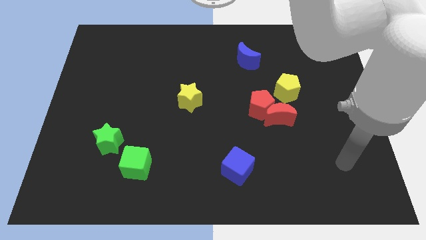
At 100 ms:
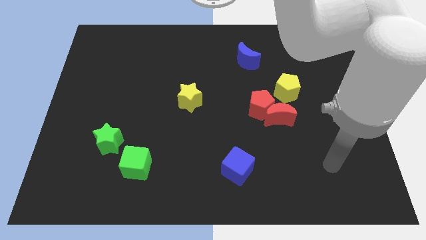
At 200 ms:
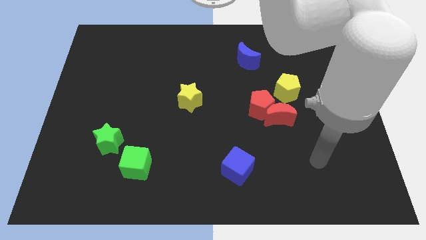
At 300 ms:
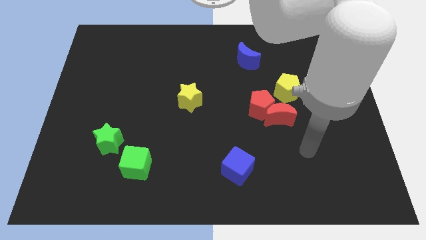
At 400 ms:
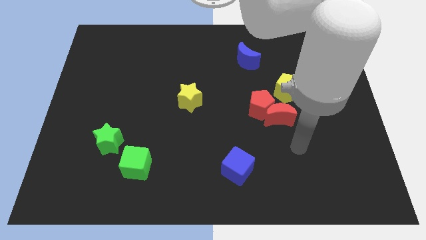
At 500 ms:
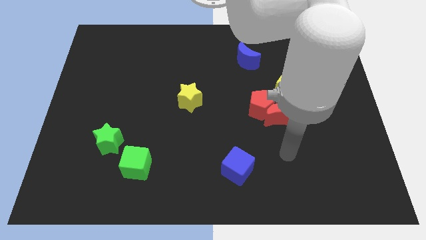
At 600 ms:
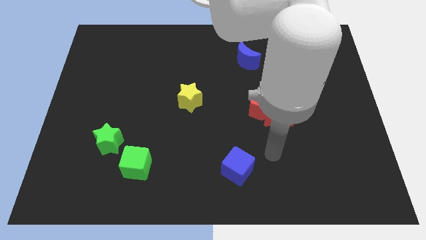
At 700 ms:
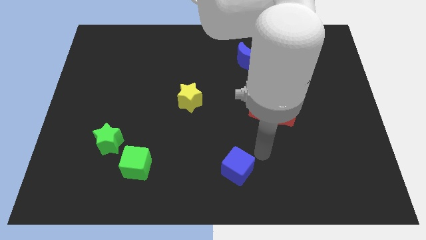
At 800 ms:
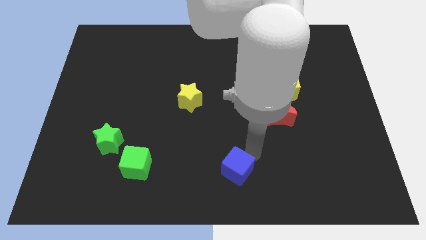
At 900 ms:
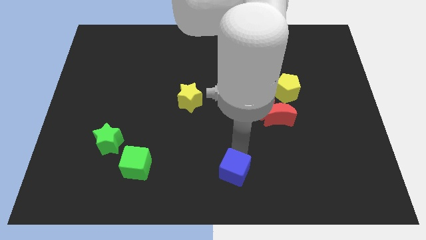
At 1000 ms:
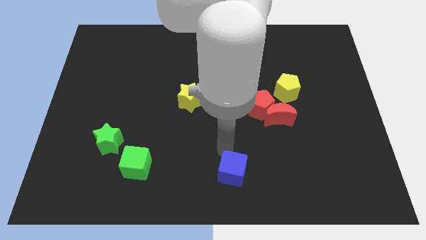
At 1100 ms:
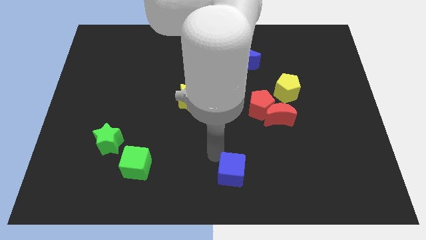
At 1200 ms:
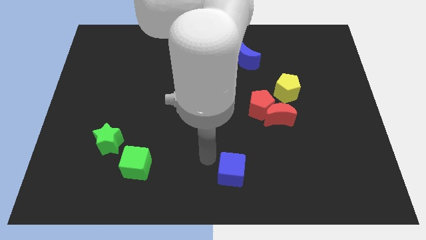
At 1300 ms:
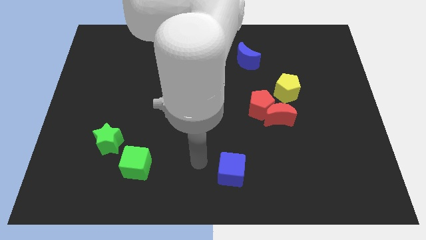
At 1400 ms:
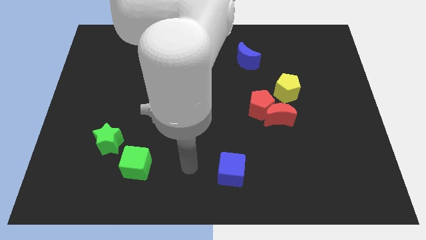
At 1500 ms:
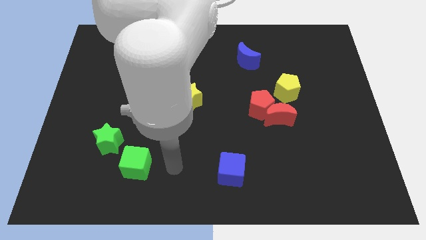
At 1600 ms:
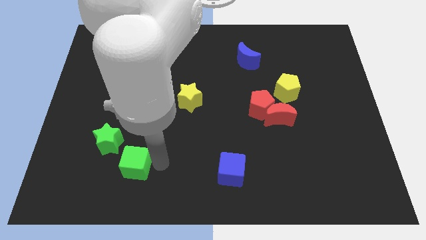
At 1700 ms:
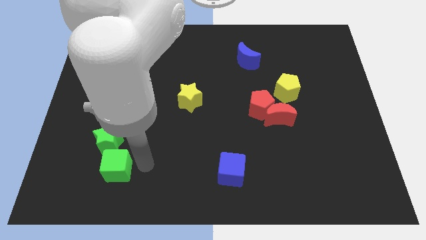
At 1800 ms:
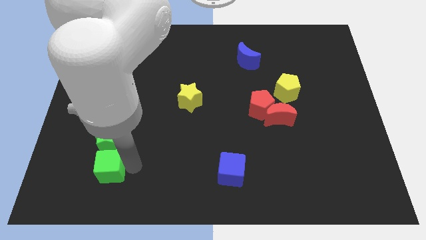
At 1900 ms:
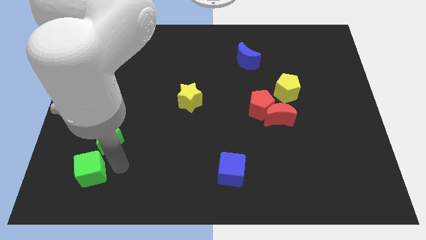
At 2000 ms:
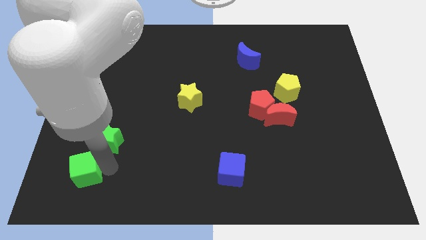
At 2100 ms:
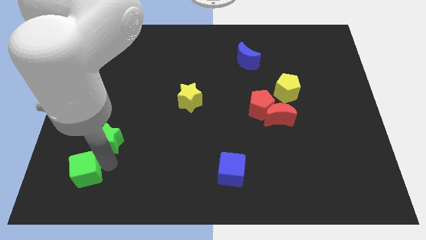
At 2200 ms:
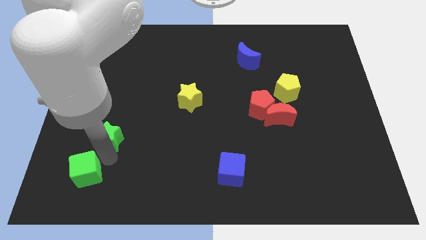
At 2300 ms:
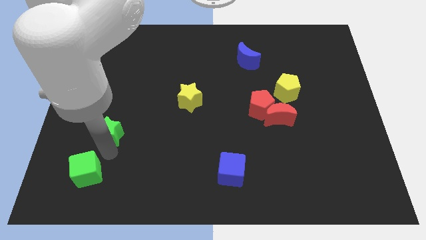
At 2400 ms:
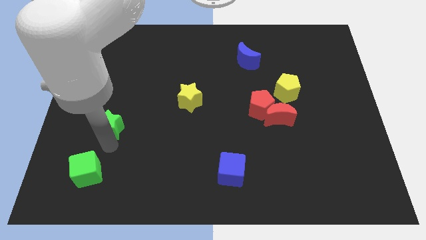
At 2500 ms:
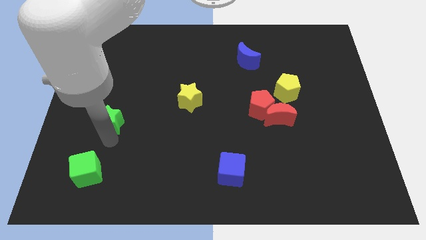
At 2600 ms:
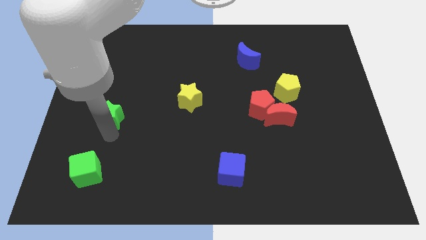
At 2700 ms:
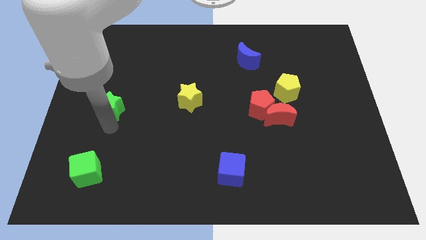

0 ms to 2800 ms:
move the green star up somewhat

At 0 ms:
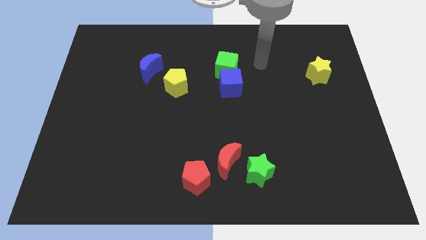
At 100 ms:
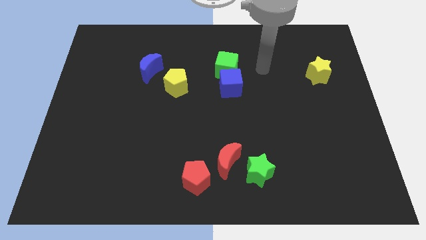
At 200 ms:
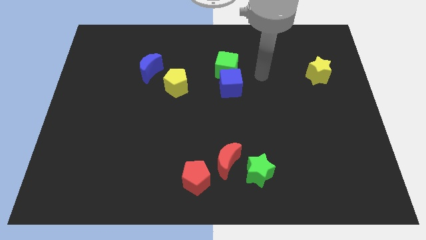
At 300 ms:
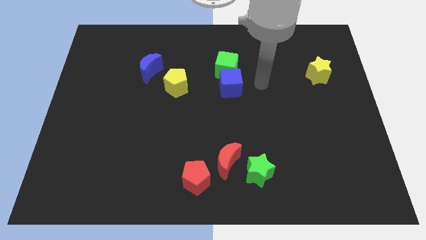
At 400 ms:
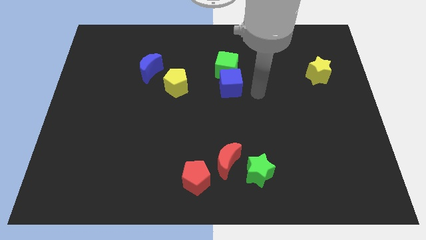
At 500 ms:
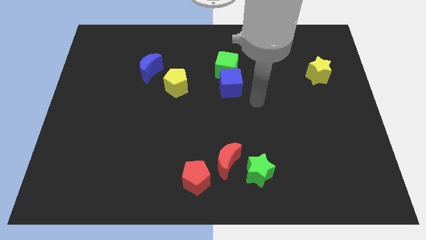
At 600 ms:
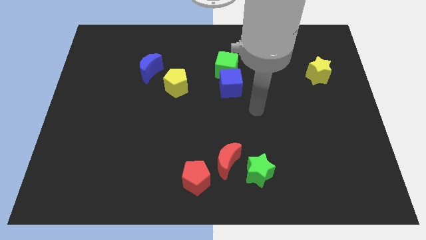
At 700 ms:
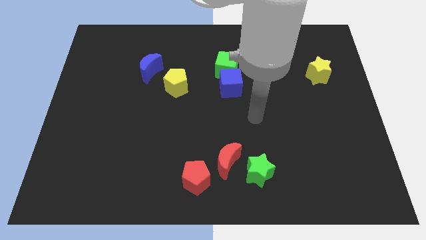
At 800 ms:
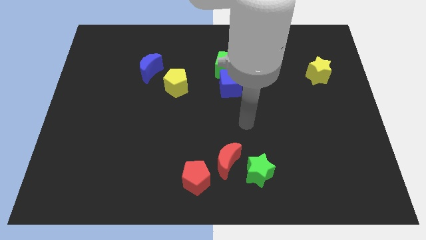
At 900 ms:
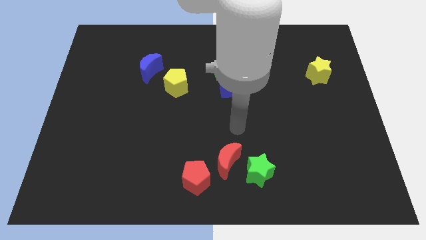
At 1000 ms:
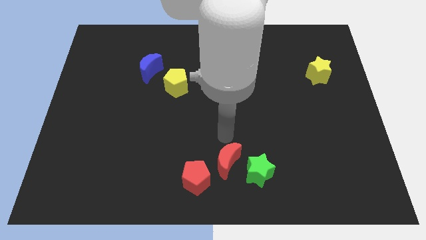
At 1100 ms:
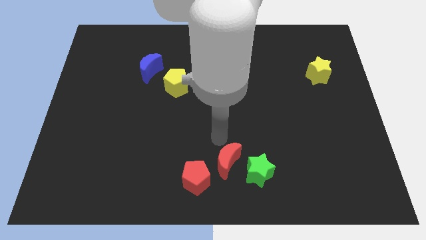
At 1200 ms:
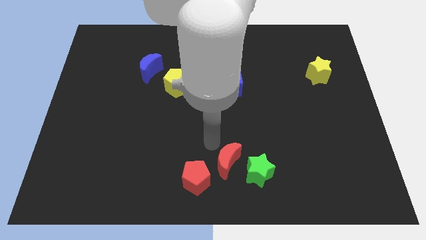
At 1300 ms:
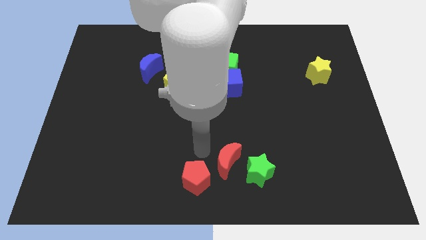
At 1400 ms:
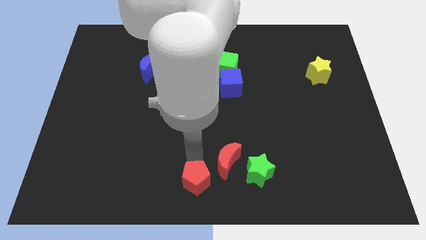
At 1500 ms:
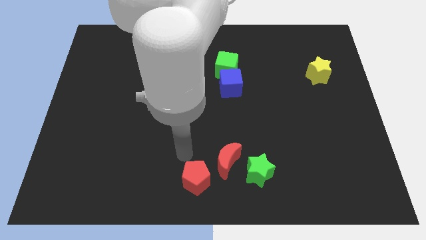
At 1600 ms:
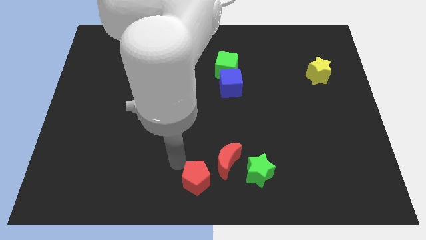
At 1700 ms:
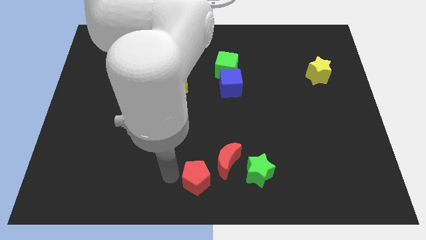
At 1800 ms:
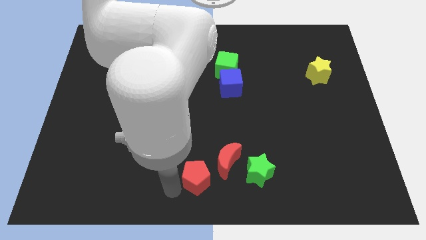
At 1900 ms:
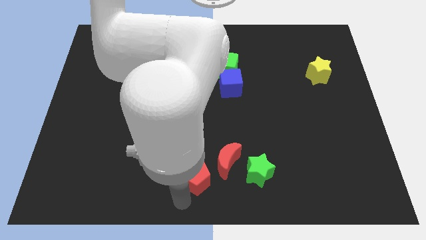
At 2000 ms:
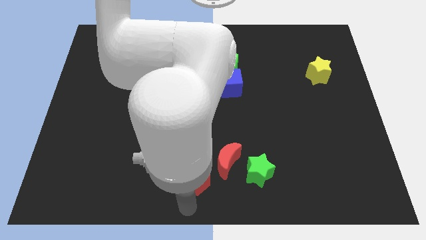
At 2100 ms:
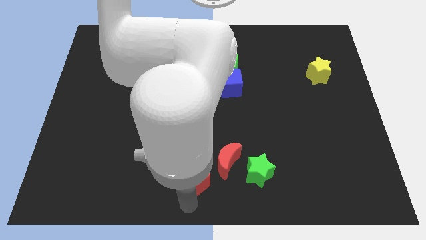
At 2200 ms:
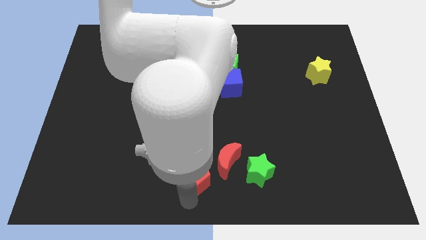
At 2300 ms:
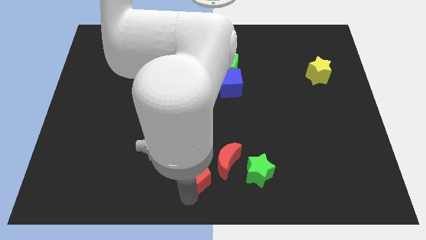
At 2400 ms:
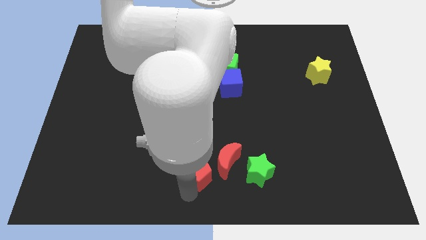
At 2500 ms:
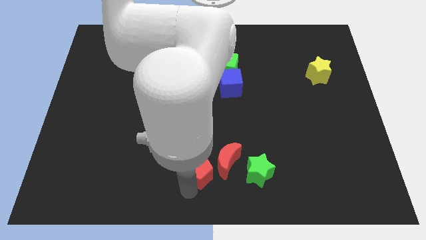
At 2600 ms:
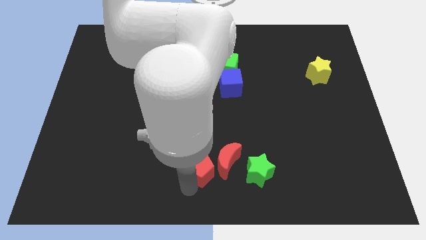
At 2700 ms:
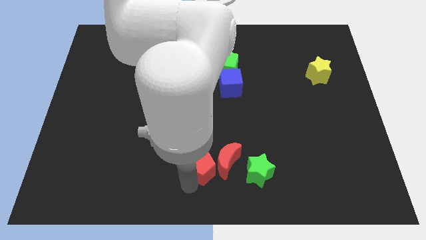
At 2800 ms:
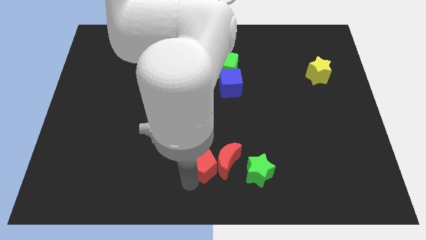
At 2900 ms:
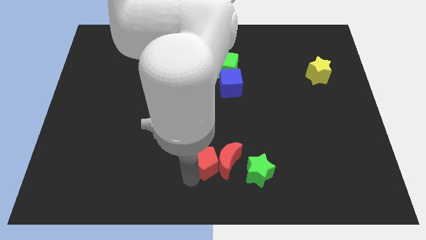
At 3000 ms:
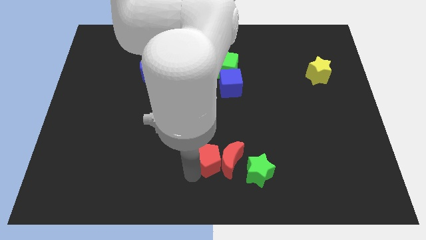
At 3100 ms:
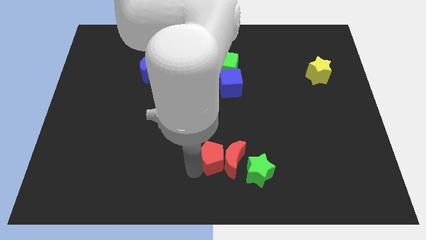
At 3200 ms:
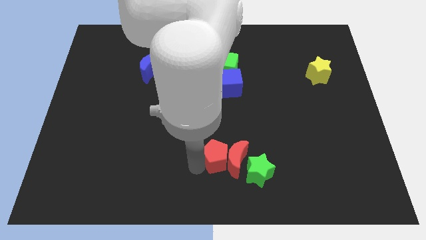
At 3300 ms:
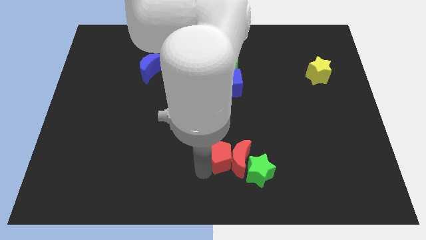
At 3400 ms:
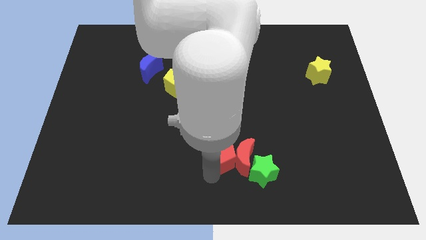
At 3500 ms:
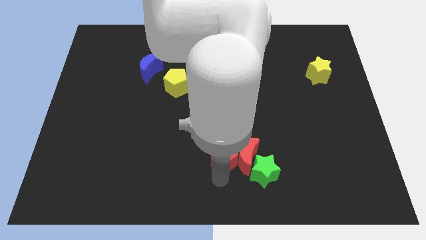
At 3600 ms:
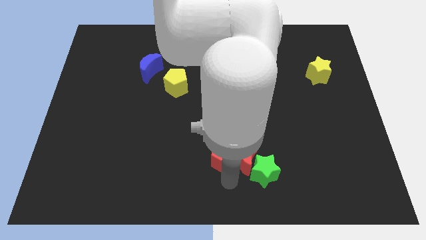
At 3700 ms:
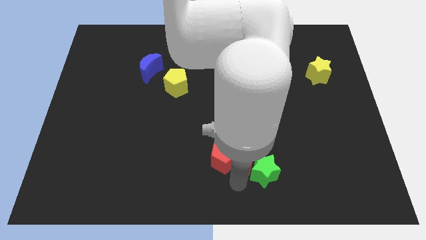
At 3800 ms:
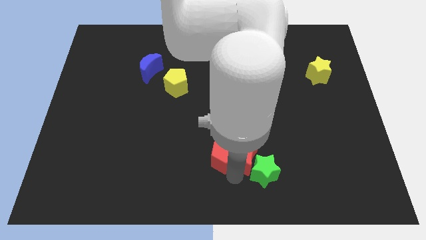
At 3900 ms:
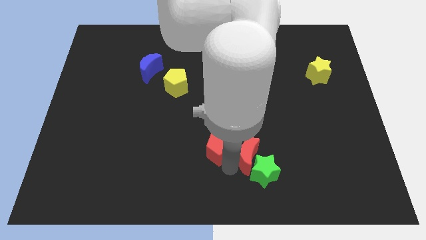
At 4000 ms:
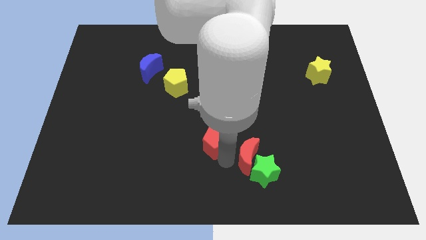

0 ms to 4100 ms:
slightly slide the red pentagon up

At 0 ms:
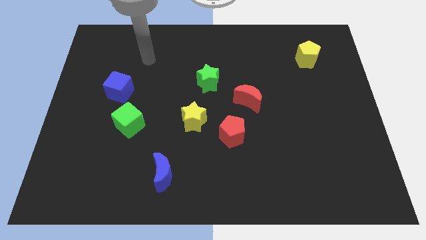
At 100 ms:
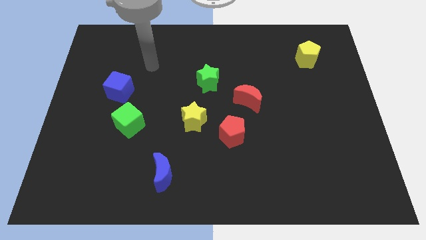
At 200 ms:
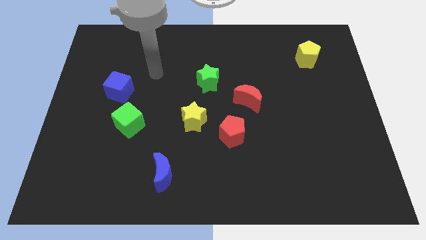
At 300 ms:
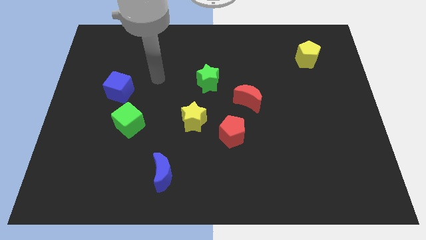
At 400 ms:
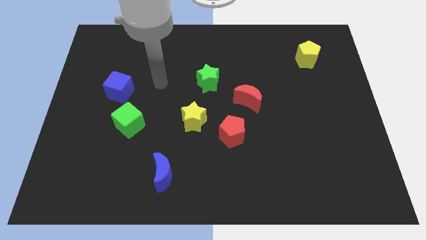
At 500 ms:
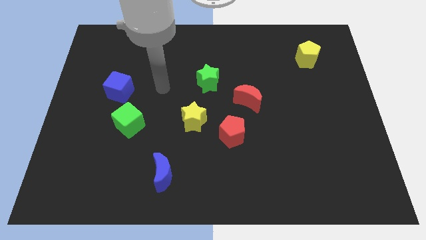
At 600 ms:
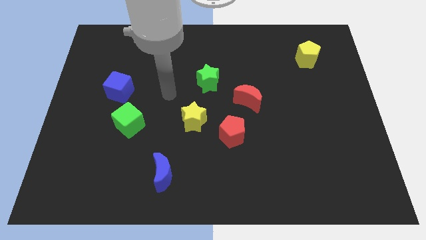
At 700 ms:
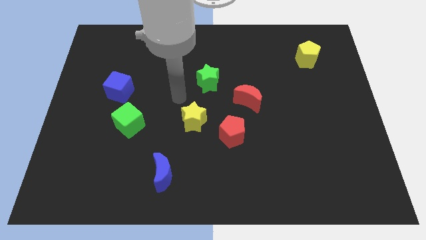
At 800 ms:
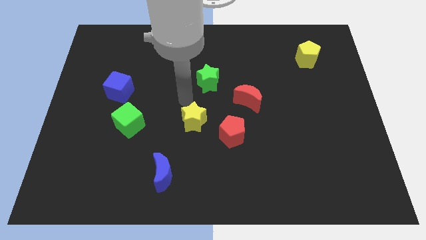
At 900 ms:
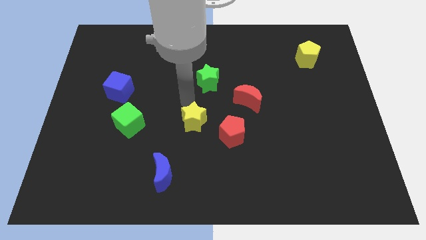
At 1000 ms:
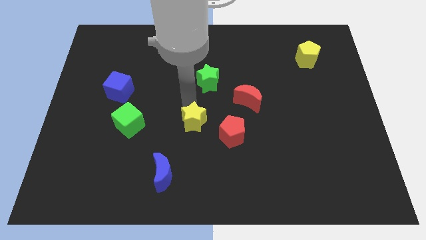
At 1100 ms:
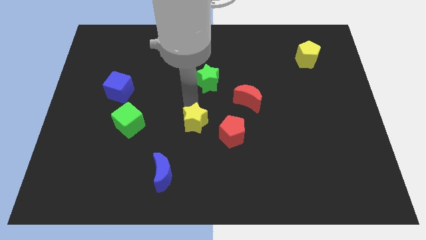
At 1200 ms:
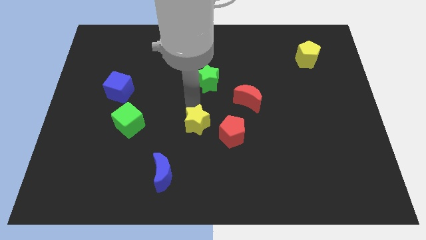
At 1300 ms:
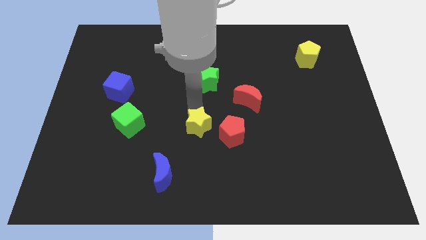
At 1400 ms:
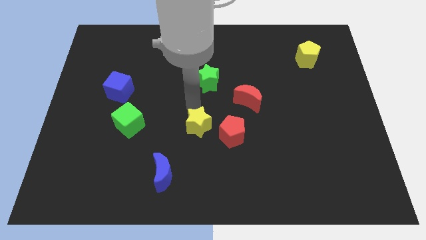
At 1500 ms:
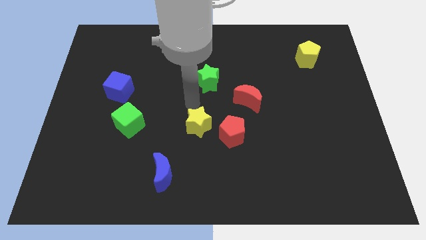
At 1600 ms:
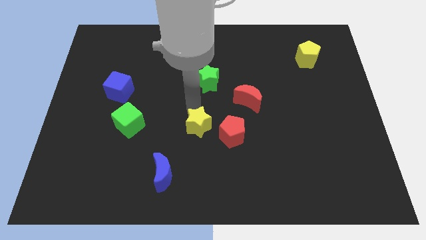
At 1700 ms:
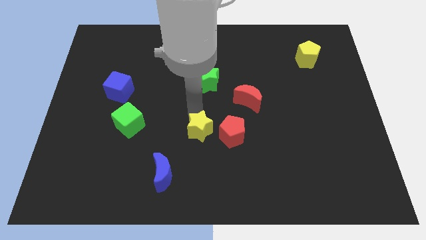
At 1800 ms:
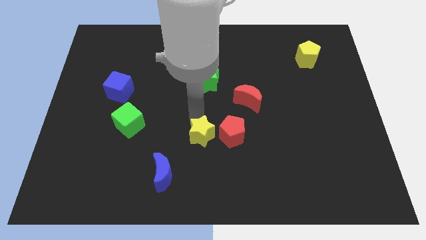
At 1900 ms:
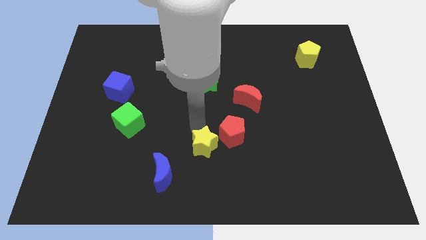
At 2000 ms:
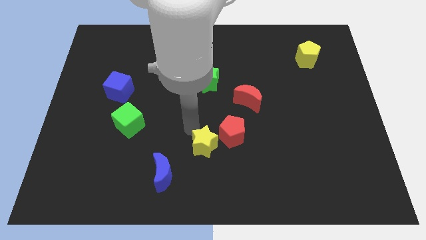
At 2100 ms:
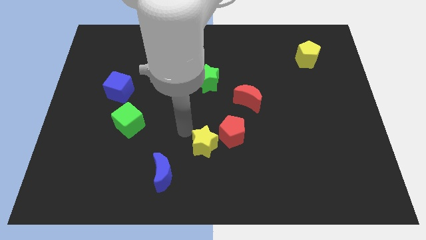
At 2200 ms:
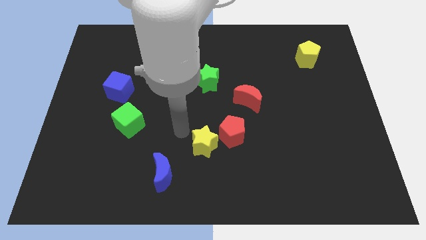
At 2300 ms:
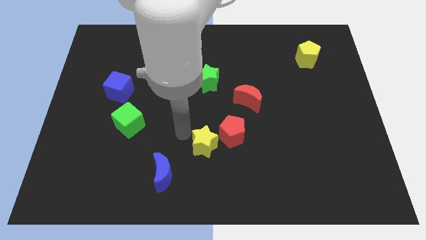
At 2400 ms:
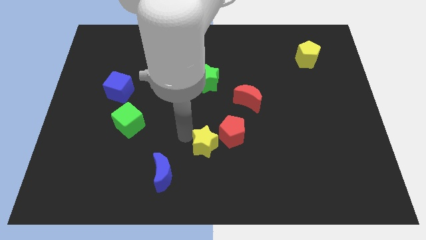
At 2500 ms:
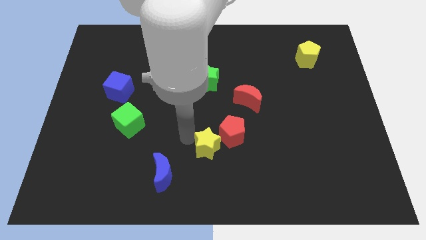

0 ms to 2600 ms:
push the yellow star a little bit downwards and right
